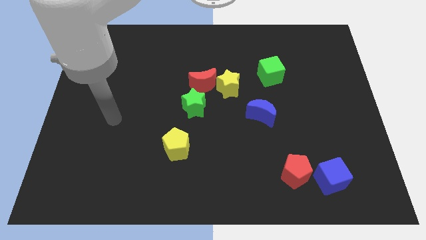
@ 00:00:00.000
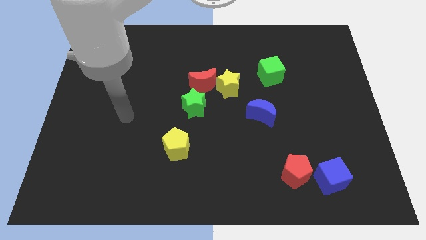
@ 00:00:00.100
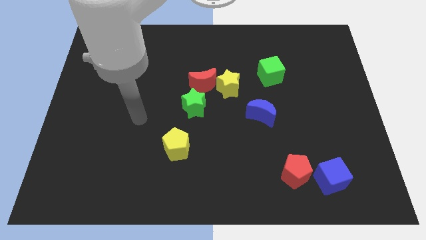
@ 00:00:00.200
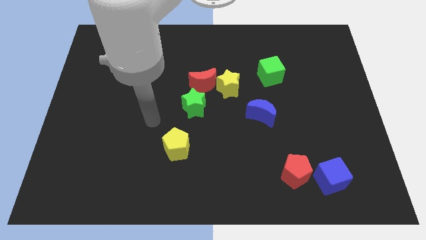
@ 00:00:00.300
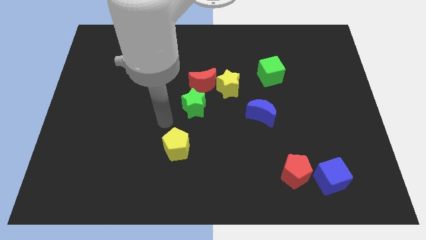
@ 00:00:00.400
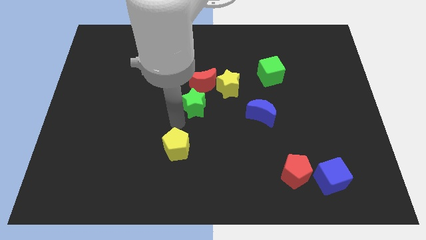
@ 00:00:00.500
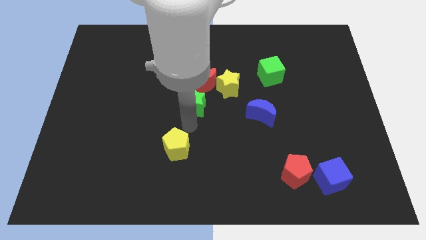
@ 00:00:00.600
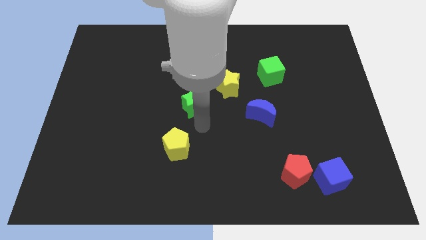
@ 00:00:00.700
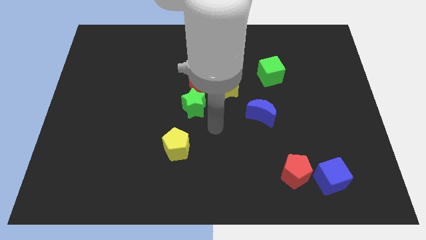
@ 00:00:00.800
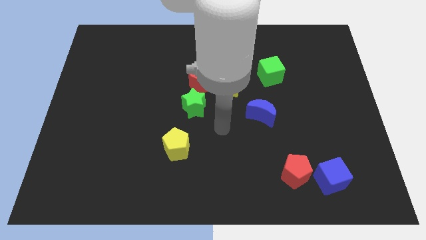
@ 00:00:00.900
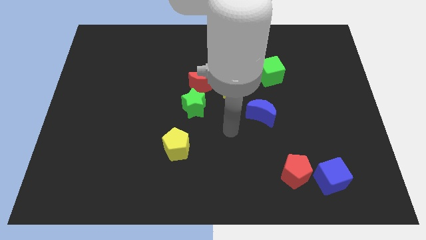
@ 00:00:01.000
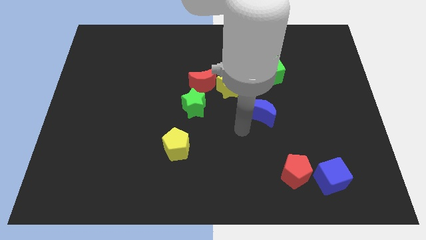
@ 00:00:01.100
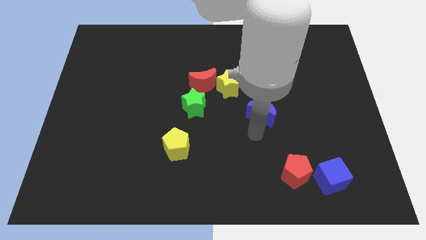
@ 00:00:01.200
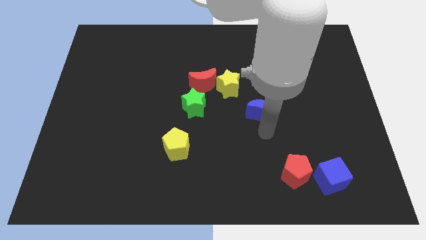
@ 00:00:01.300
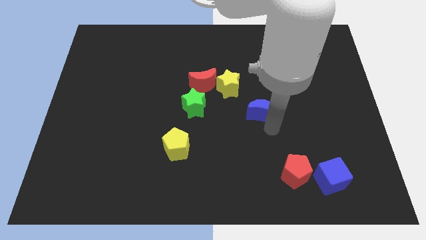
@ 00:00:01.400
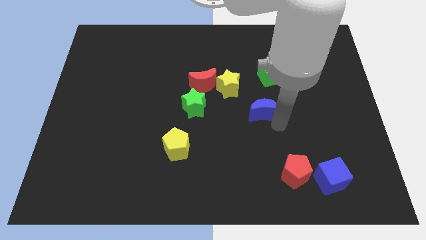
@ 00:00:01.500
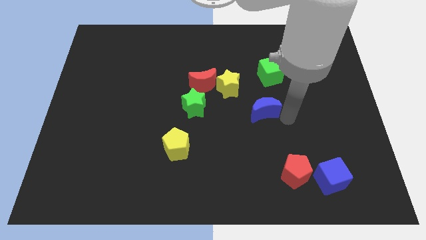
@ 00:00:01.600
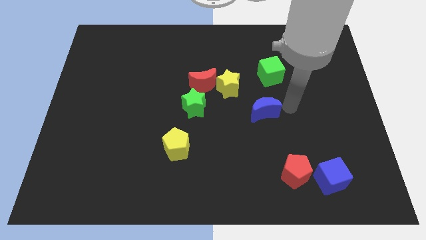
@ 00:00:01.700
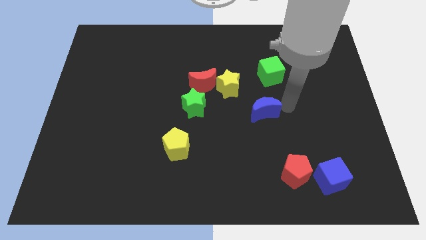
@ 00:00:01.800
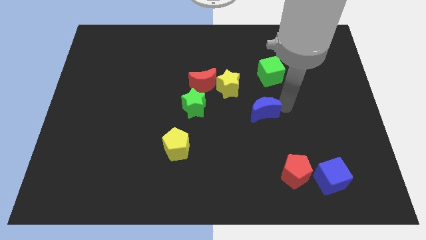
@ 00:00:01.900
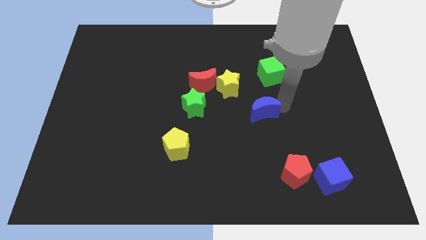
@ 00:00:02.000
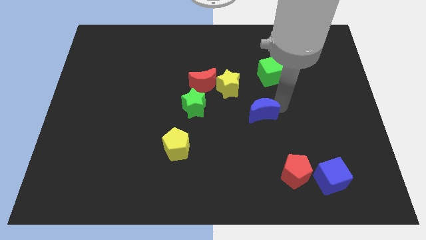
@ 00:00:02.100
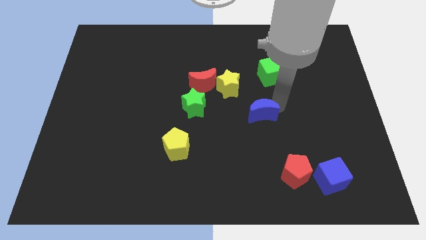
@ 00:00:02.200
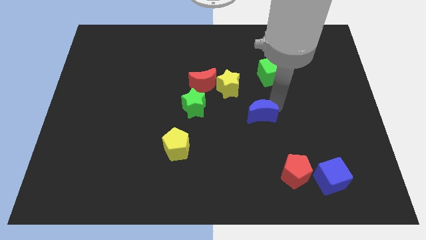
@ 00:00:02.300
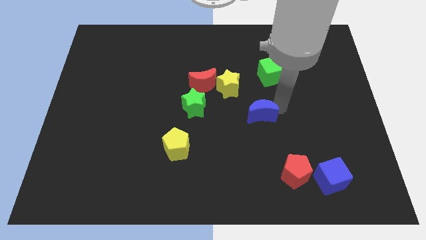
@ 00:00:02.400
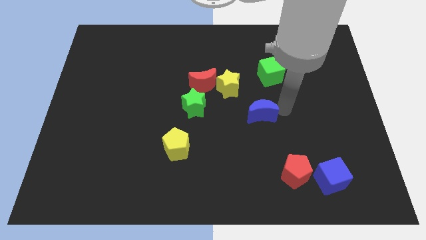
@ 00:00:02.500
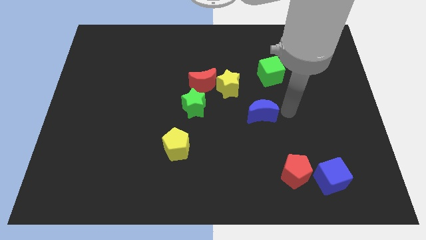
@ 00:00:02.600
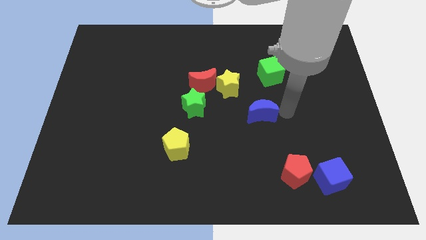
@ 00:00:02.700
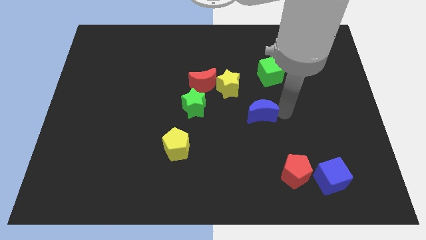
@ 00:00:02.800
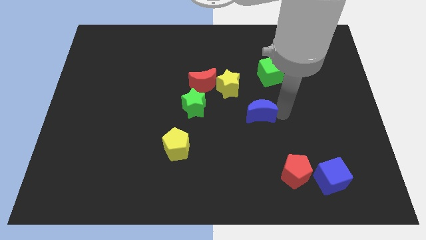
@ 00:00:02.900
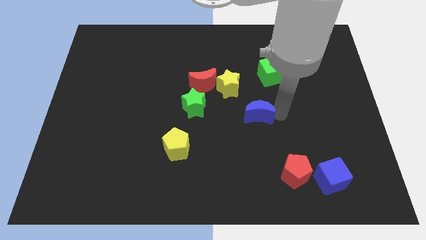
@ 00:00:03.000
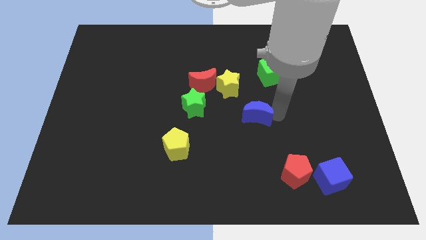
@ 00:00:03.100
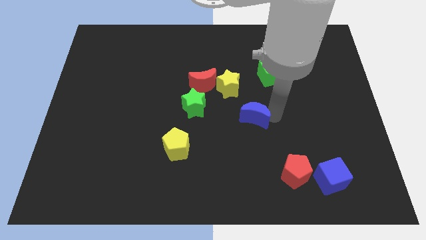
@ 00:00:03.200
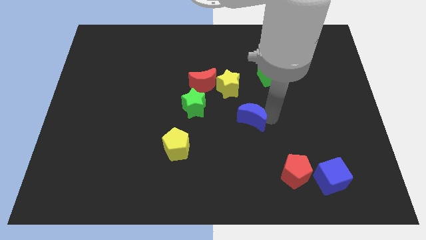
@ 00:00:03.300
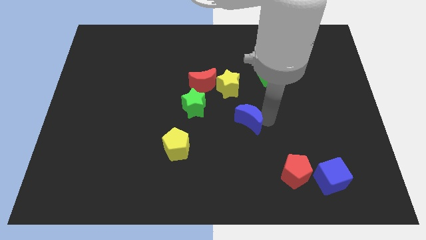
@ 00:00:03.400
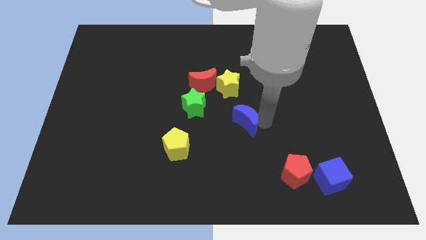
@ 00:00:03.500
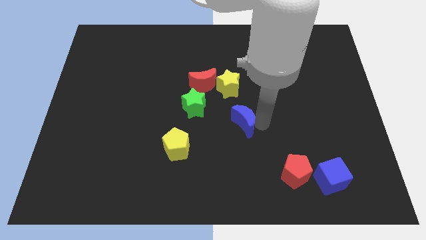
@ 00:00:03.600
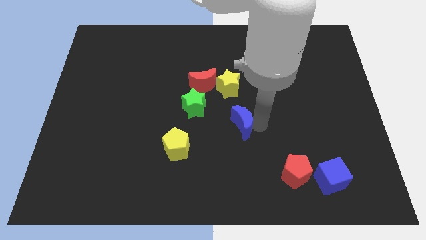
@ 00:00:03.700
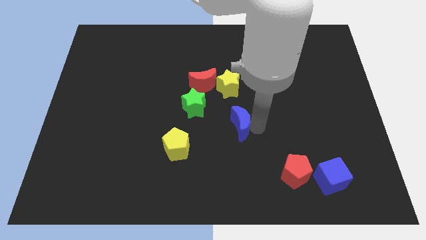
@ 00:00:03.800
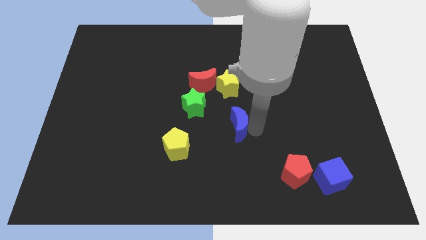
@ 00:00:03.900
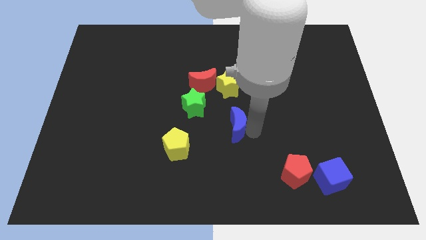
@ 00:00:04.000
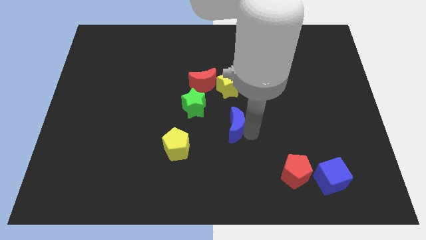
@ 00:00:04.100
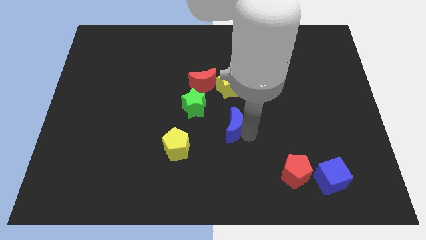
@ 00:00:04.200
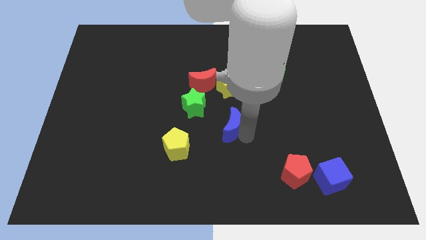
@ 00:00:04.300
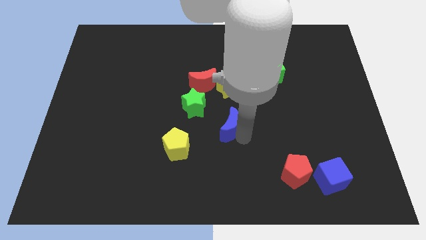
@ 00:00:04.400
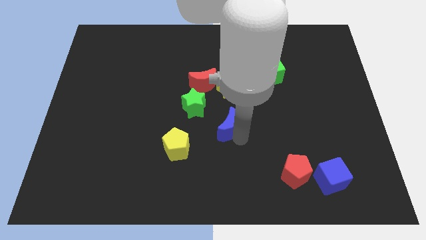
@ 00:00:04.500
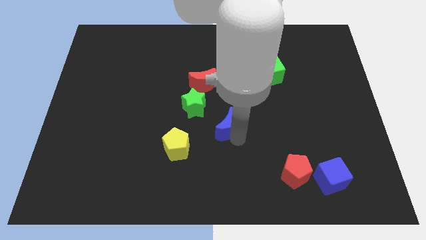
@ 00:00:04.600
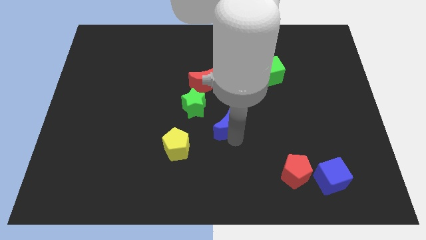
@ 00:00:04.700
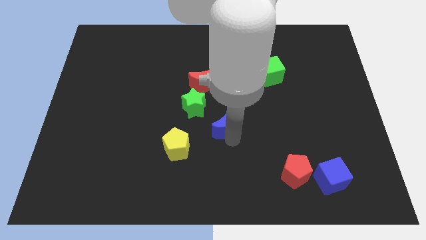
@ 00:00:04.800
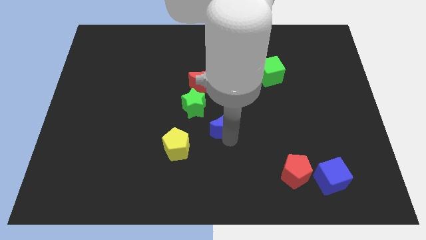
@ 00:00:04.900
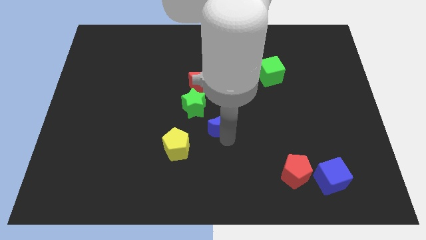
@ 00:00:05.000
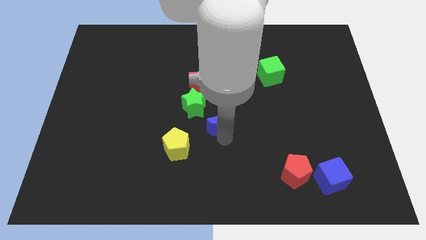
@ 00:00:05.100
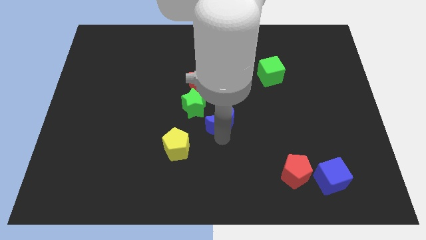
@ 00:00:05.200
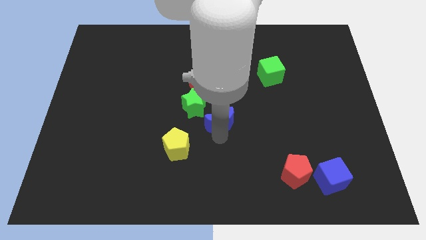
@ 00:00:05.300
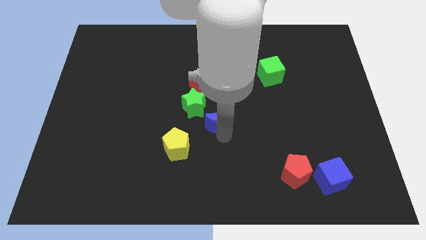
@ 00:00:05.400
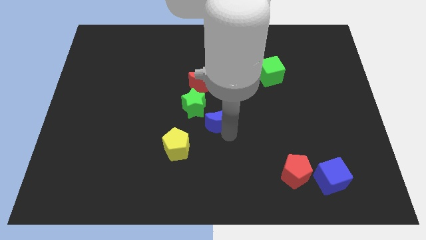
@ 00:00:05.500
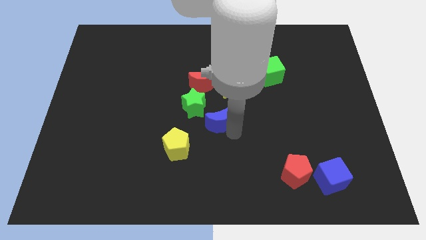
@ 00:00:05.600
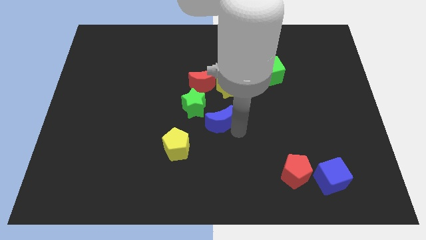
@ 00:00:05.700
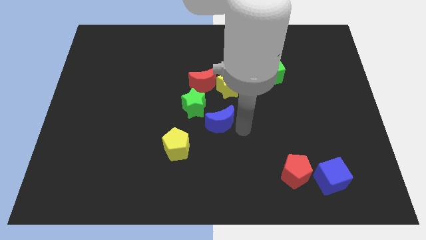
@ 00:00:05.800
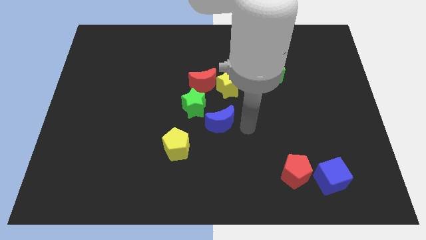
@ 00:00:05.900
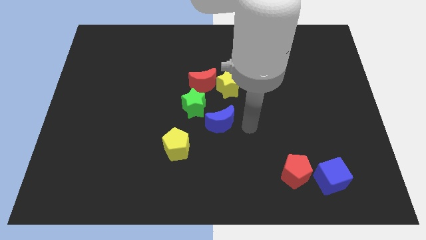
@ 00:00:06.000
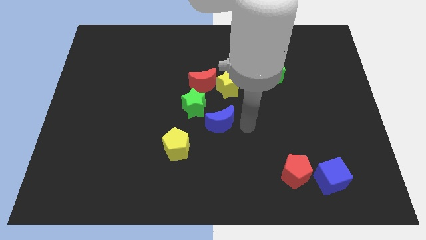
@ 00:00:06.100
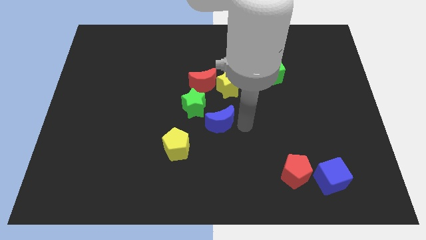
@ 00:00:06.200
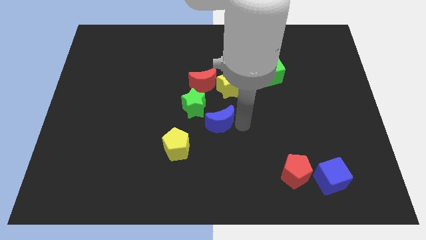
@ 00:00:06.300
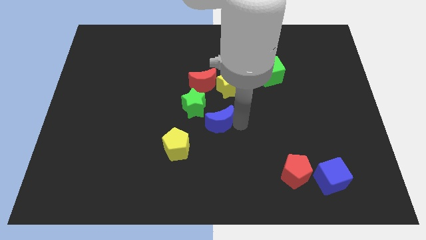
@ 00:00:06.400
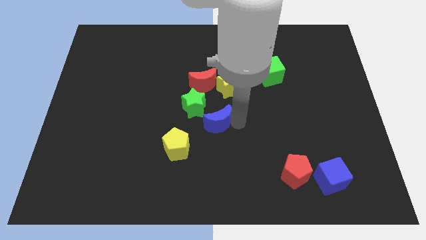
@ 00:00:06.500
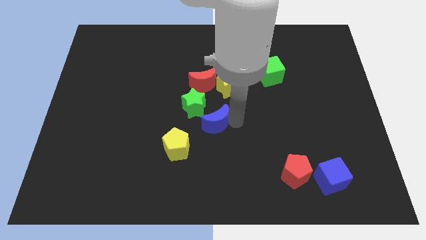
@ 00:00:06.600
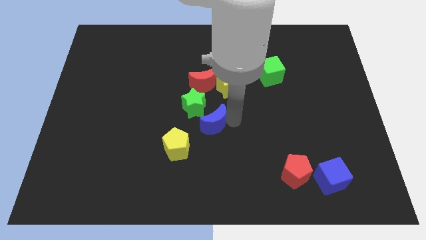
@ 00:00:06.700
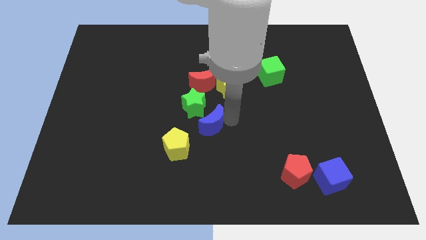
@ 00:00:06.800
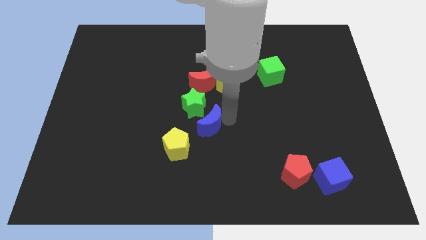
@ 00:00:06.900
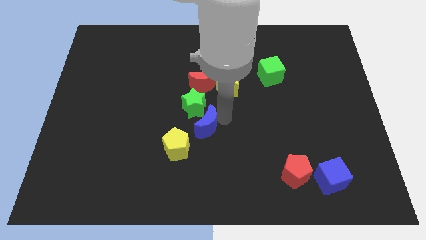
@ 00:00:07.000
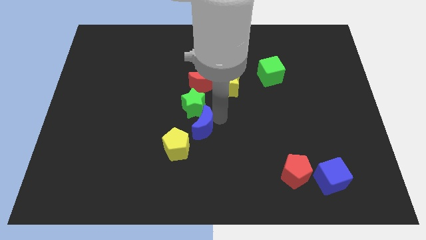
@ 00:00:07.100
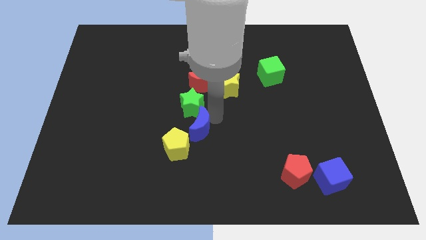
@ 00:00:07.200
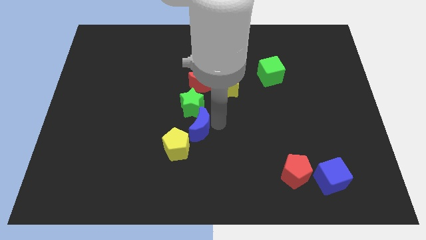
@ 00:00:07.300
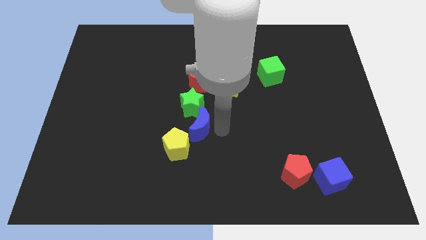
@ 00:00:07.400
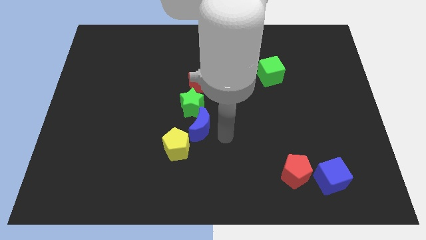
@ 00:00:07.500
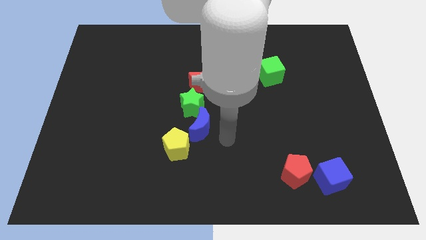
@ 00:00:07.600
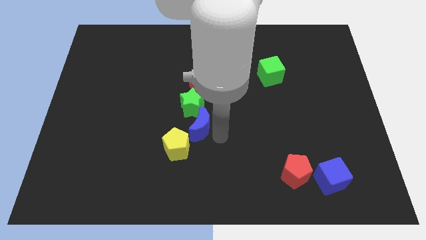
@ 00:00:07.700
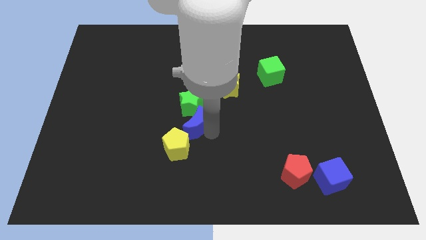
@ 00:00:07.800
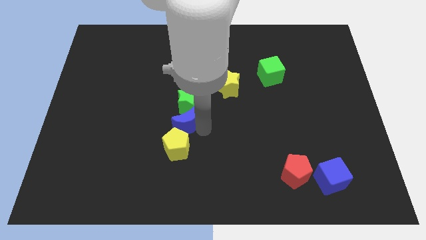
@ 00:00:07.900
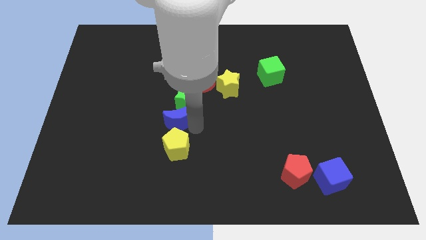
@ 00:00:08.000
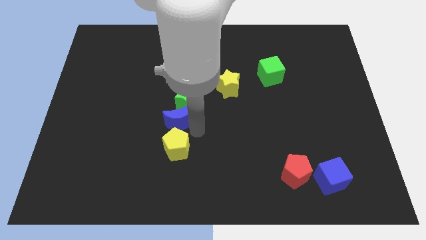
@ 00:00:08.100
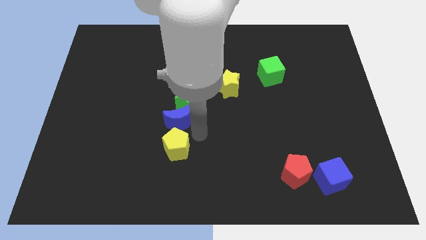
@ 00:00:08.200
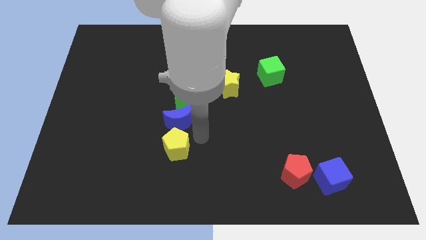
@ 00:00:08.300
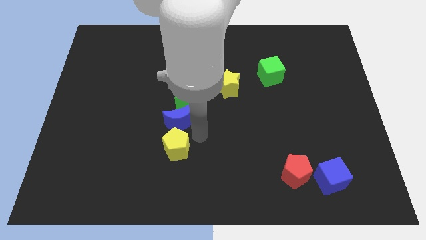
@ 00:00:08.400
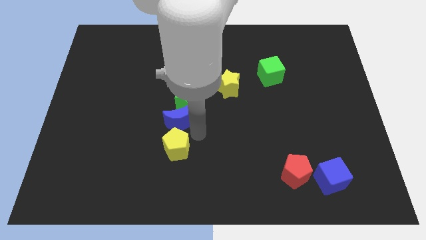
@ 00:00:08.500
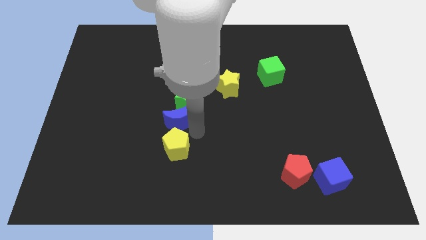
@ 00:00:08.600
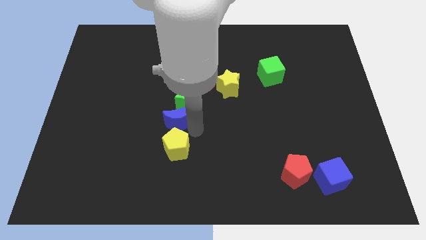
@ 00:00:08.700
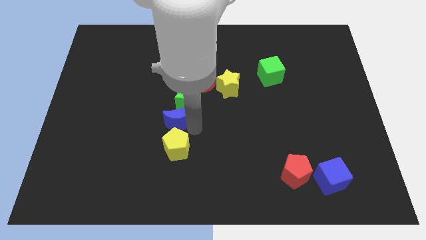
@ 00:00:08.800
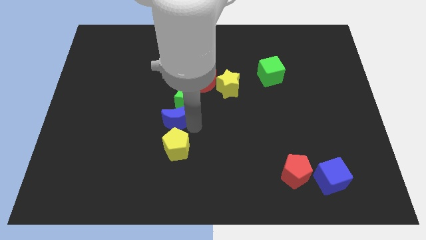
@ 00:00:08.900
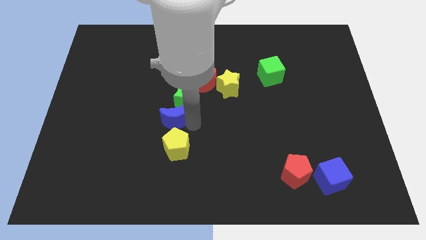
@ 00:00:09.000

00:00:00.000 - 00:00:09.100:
move the blue moon to the left
